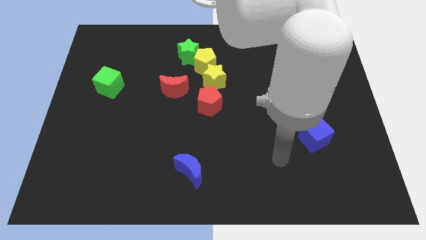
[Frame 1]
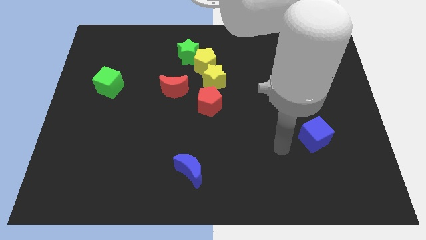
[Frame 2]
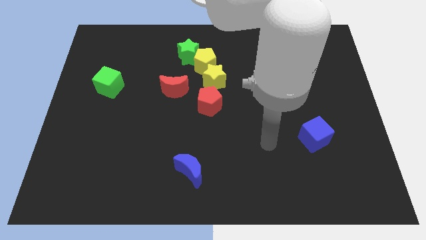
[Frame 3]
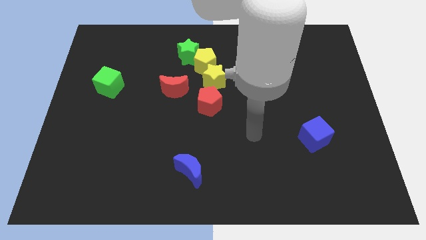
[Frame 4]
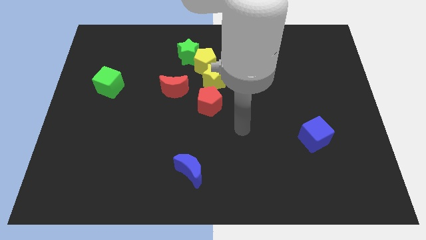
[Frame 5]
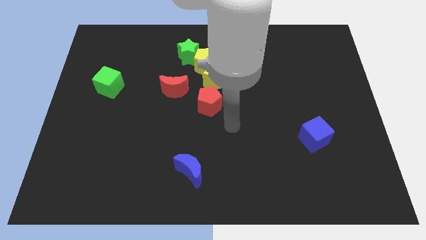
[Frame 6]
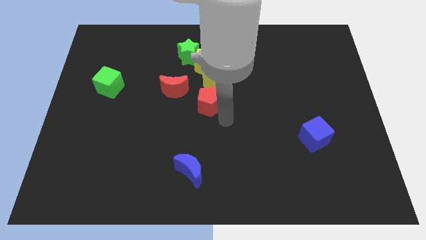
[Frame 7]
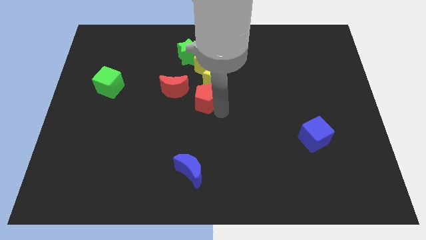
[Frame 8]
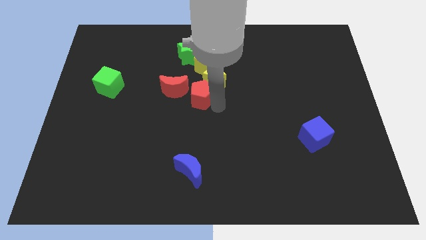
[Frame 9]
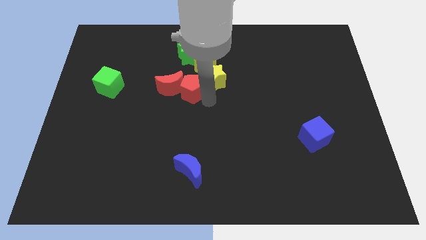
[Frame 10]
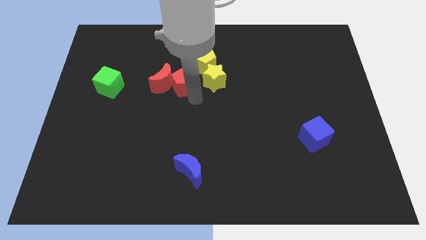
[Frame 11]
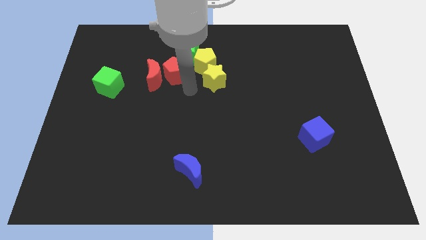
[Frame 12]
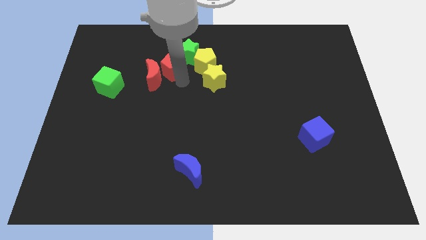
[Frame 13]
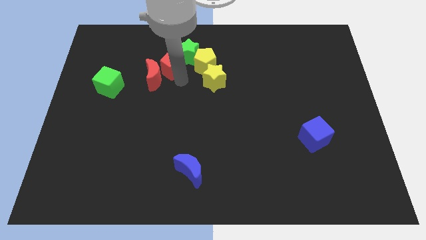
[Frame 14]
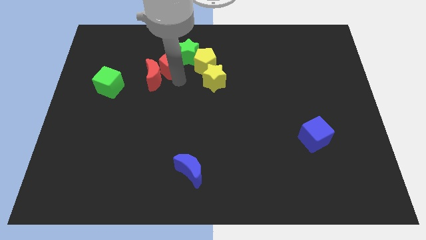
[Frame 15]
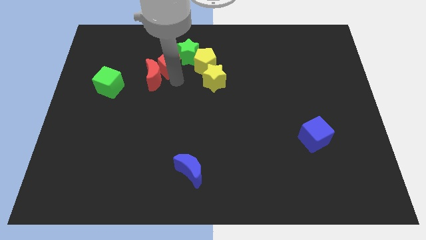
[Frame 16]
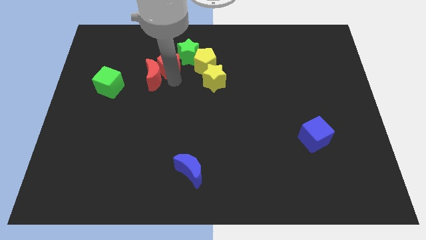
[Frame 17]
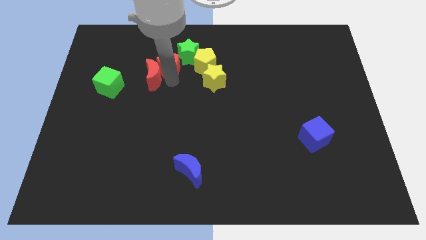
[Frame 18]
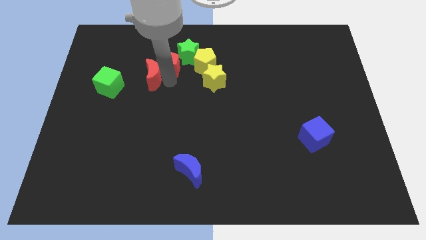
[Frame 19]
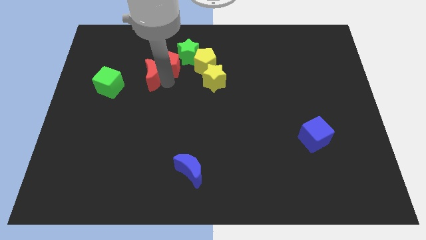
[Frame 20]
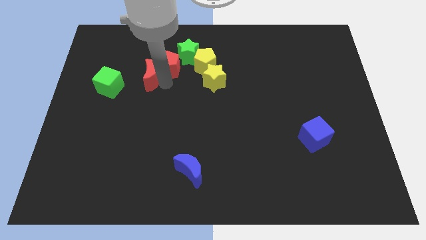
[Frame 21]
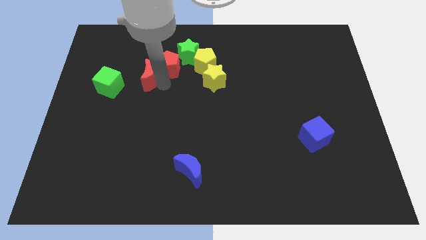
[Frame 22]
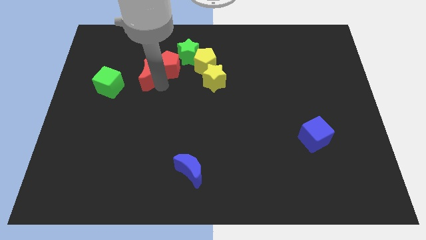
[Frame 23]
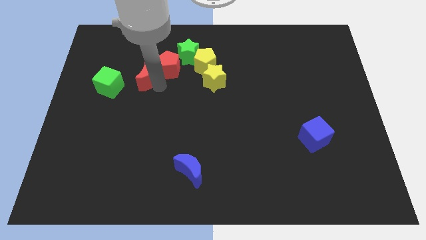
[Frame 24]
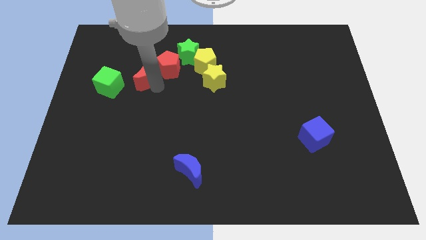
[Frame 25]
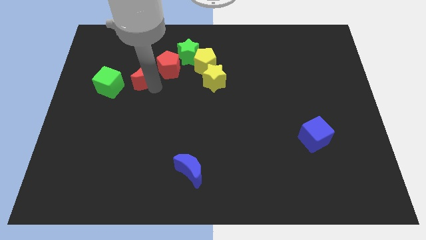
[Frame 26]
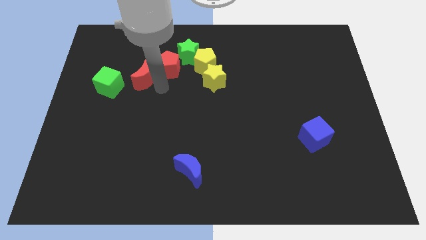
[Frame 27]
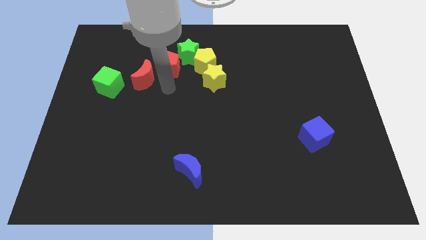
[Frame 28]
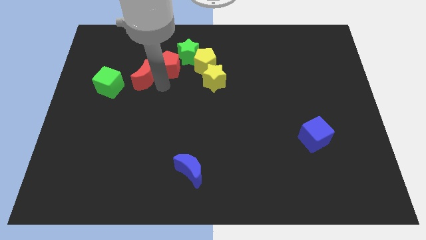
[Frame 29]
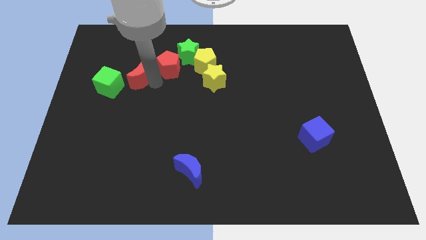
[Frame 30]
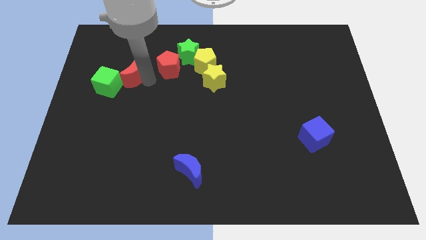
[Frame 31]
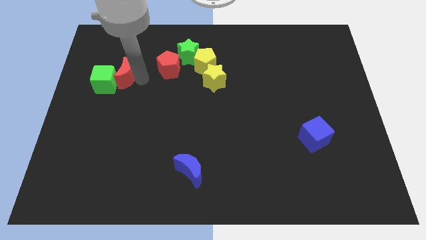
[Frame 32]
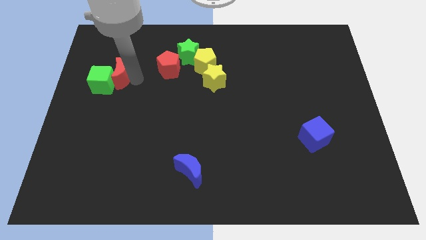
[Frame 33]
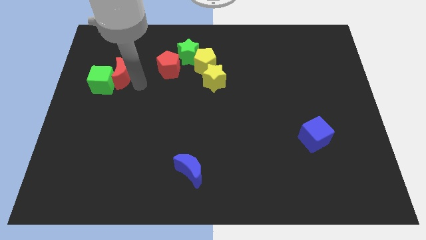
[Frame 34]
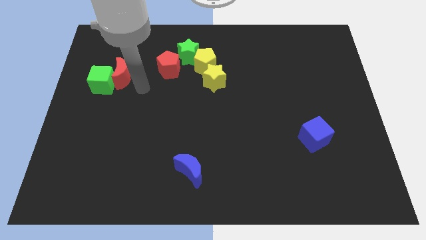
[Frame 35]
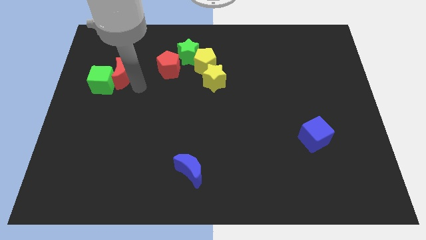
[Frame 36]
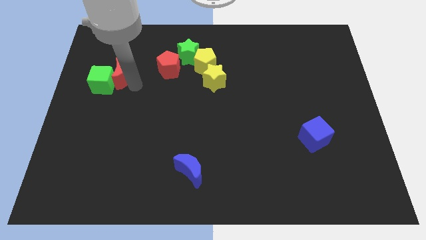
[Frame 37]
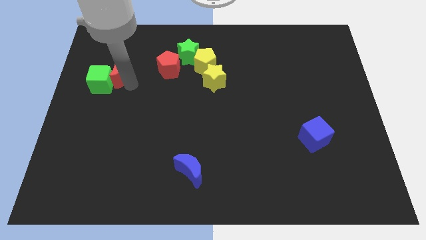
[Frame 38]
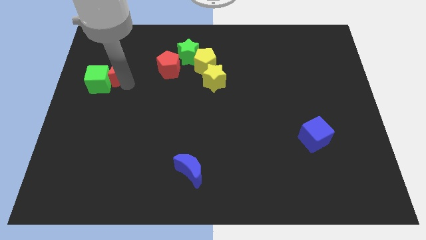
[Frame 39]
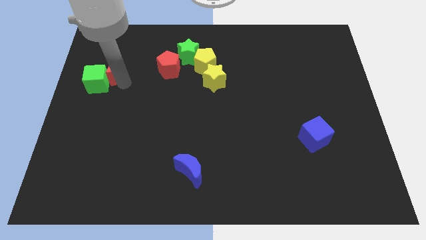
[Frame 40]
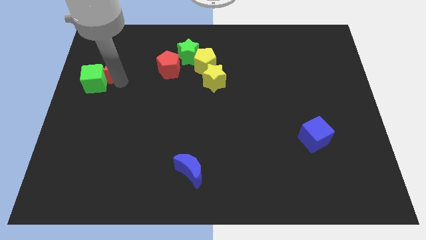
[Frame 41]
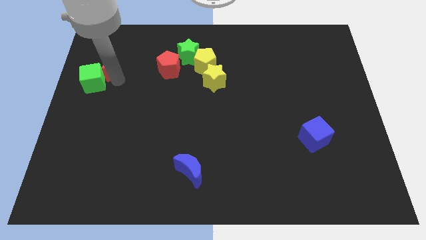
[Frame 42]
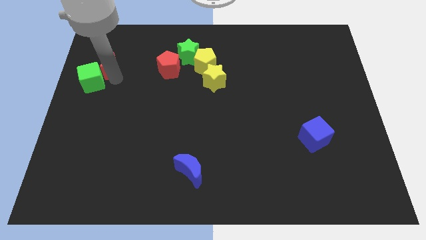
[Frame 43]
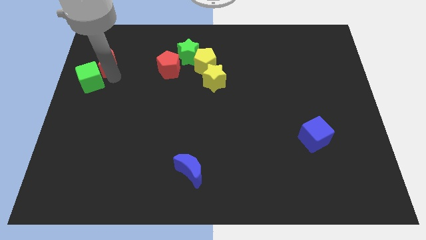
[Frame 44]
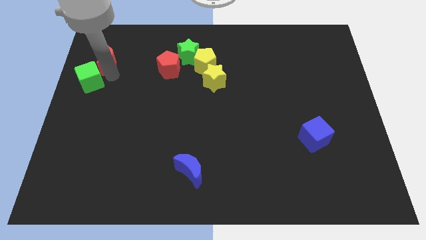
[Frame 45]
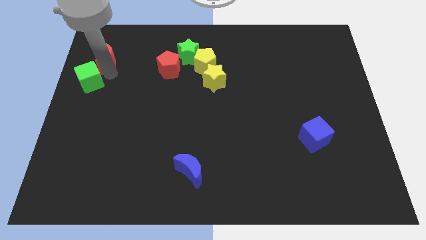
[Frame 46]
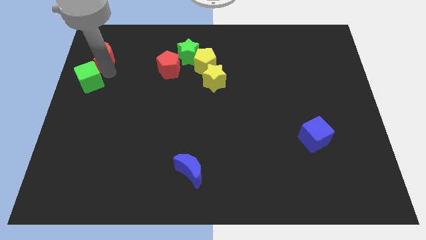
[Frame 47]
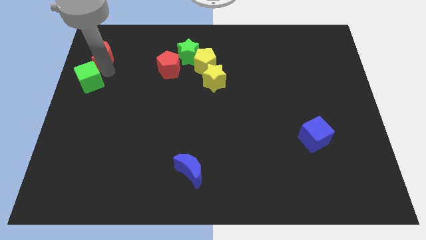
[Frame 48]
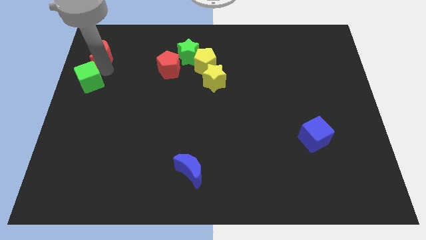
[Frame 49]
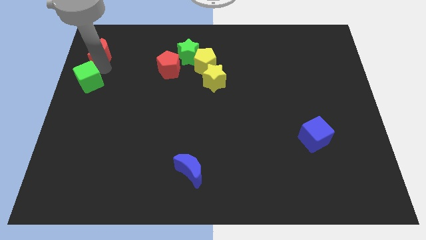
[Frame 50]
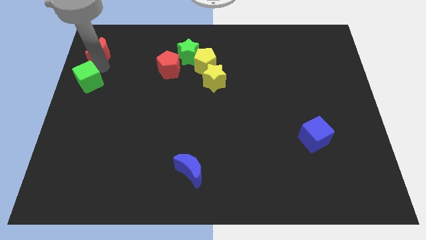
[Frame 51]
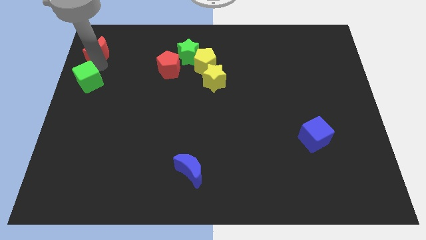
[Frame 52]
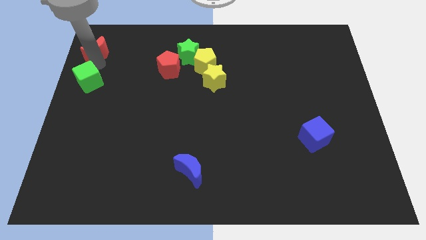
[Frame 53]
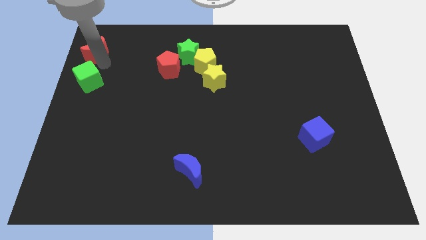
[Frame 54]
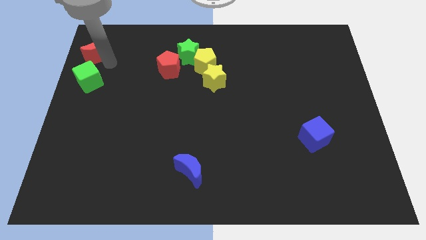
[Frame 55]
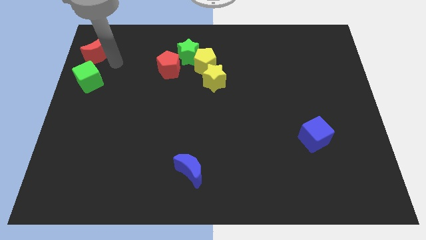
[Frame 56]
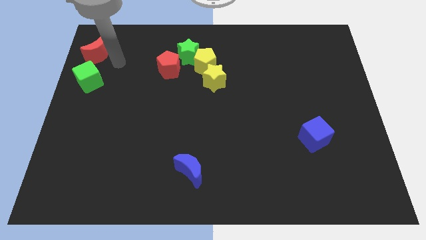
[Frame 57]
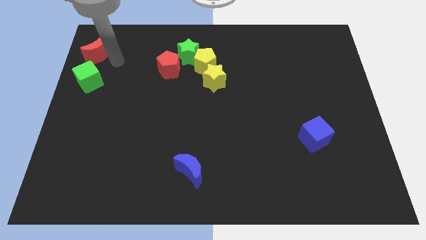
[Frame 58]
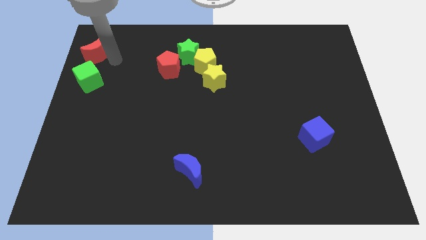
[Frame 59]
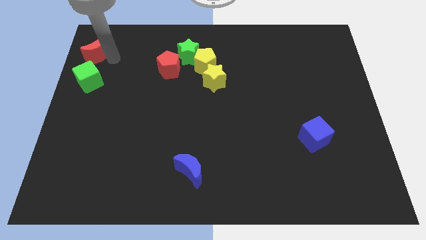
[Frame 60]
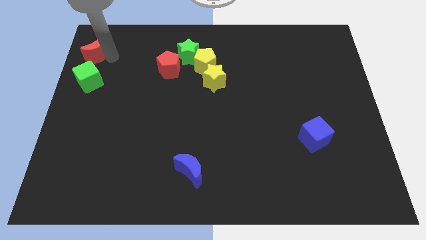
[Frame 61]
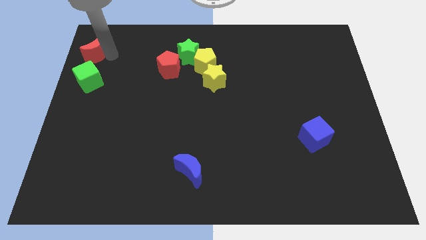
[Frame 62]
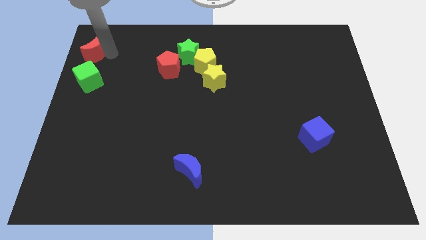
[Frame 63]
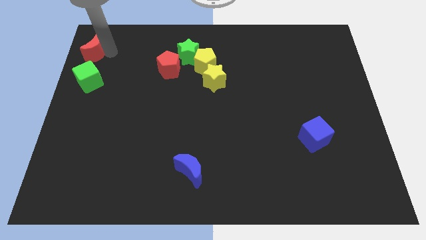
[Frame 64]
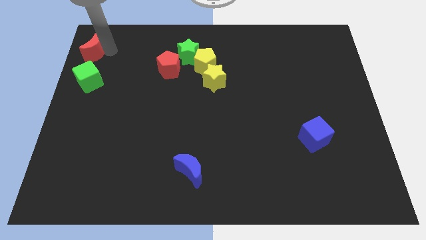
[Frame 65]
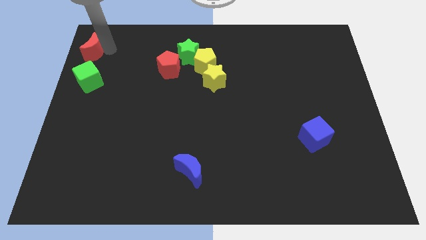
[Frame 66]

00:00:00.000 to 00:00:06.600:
put the red moon to the upper left corner
